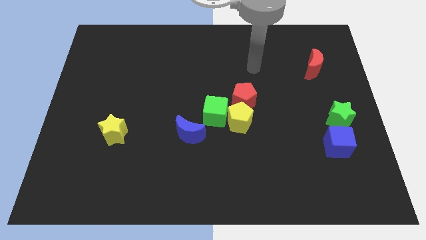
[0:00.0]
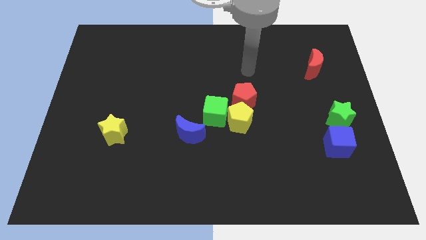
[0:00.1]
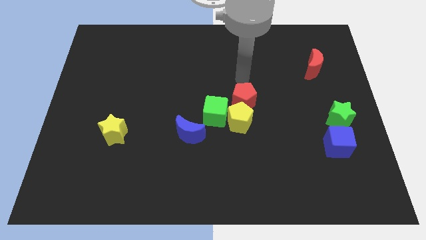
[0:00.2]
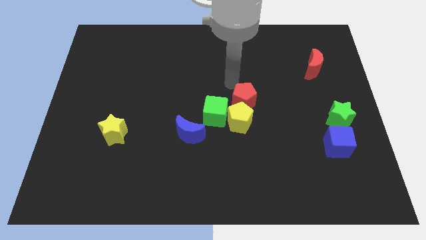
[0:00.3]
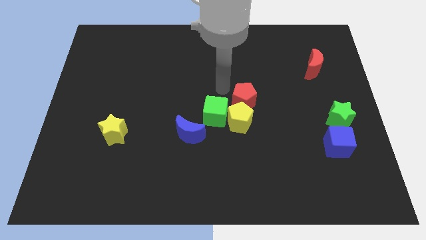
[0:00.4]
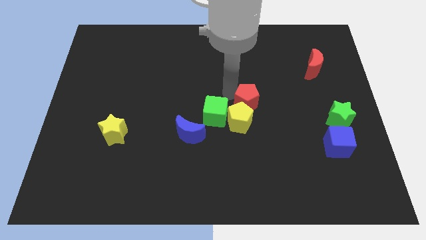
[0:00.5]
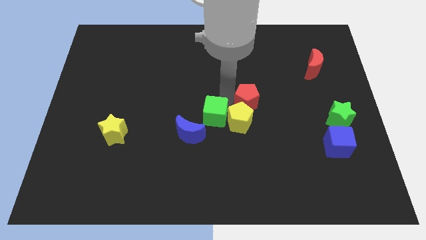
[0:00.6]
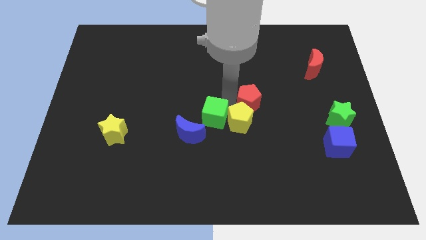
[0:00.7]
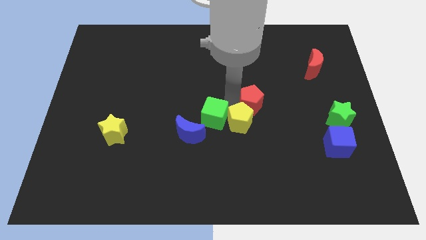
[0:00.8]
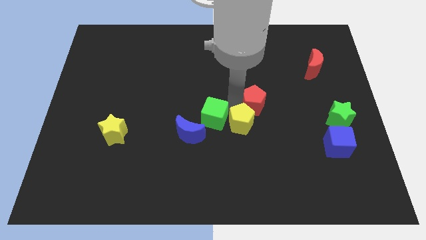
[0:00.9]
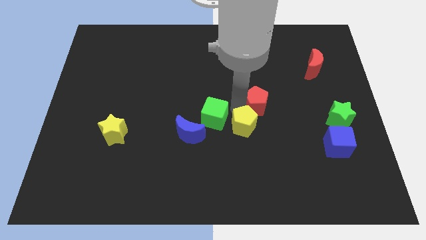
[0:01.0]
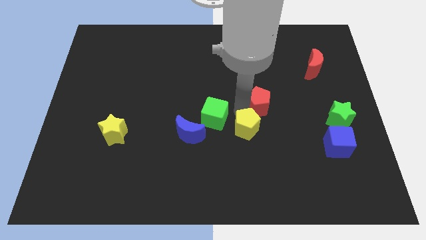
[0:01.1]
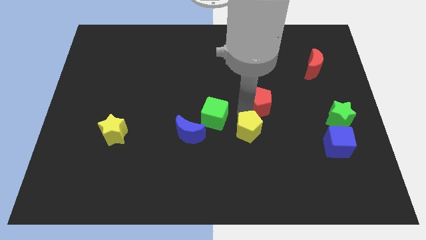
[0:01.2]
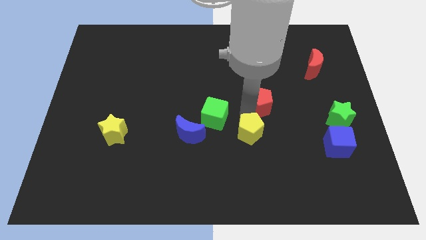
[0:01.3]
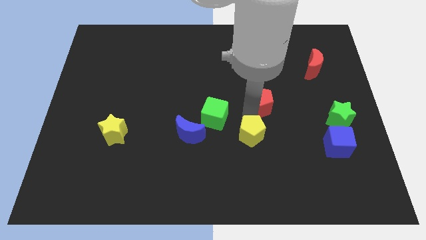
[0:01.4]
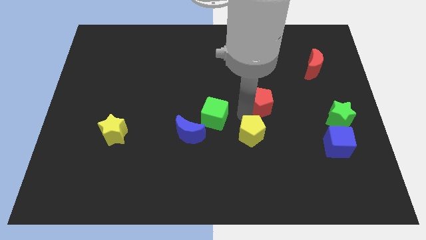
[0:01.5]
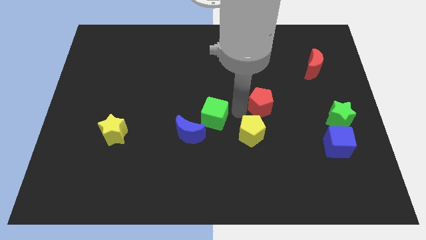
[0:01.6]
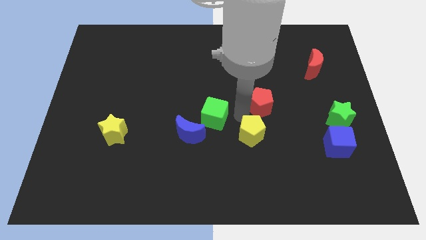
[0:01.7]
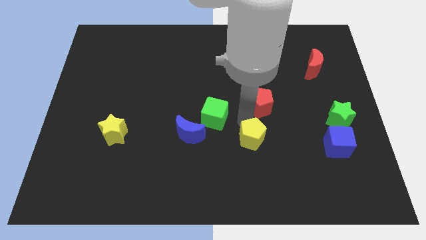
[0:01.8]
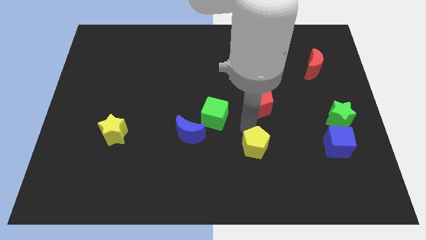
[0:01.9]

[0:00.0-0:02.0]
separate the yellow pentagon from the green cube and red pentagon

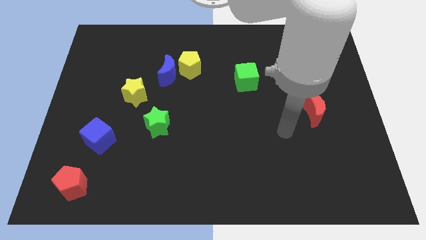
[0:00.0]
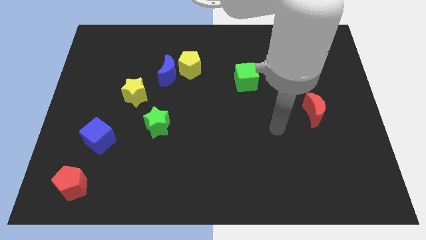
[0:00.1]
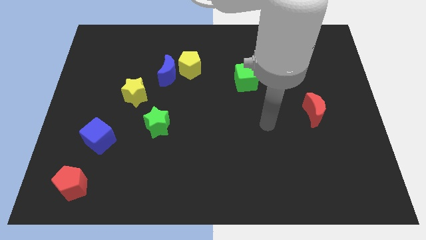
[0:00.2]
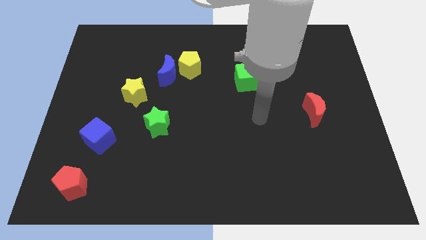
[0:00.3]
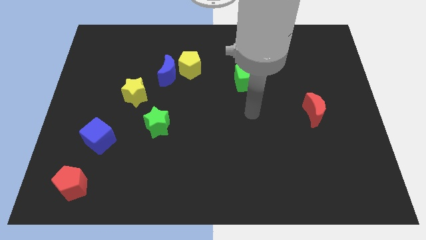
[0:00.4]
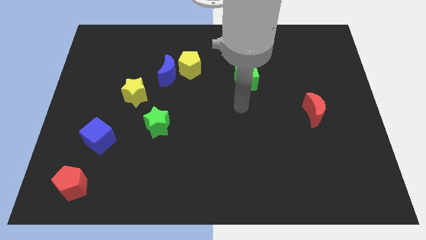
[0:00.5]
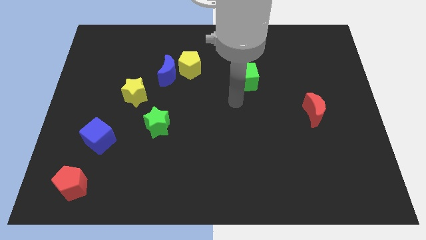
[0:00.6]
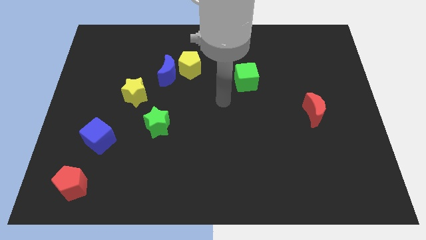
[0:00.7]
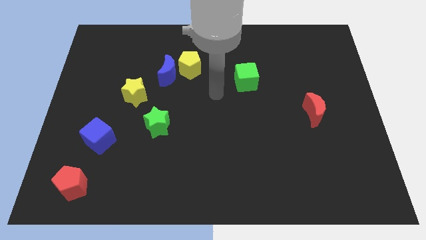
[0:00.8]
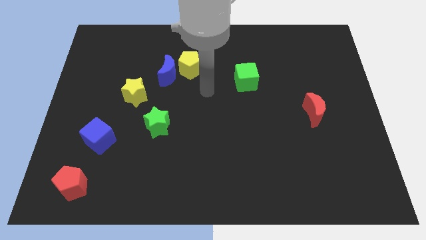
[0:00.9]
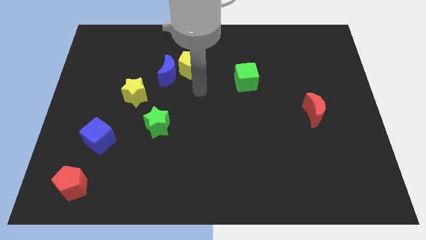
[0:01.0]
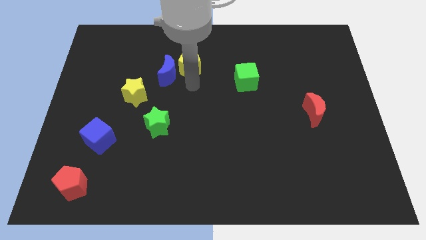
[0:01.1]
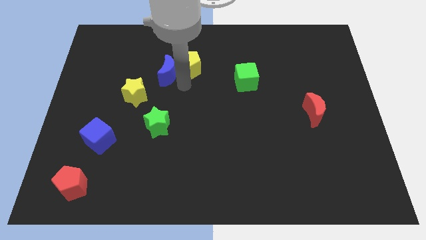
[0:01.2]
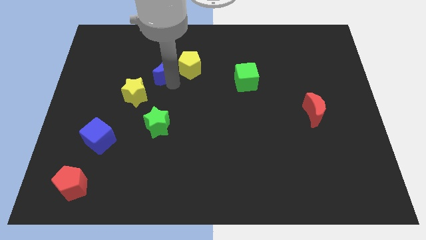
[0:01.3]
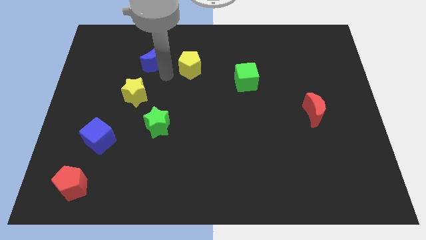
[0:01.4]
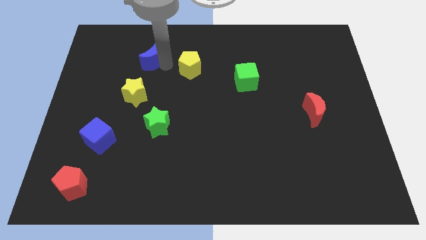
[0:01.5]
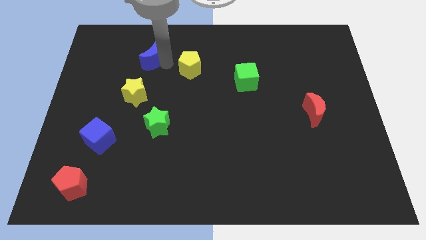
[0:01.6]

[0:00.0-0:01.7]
move the yellow pentagon away from the blue moon

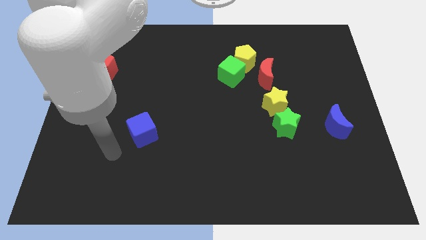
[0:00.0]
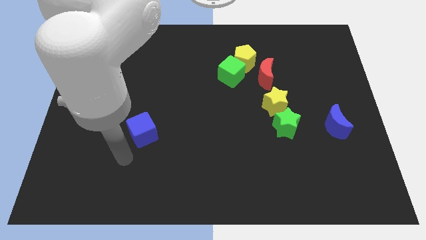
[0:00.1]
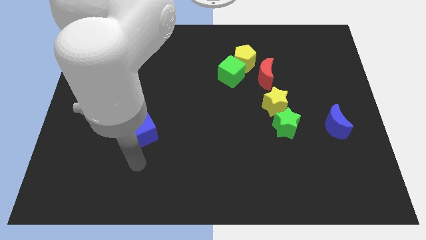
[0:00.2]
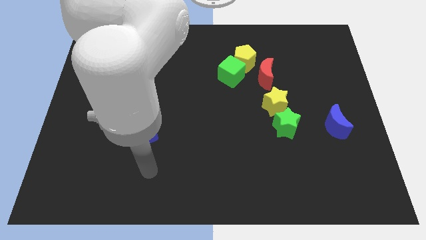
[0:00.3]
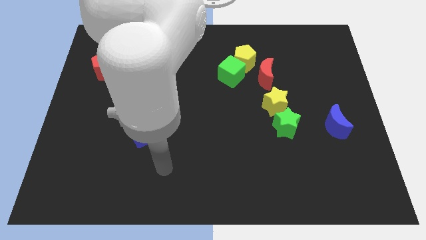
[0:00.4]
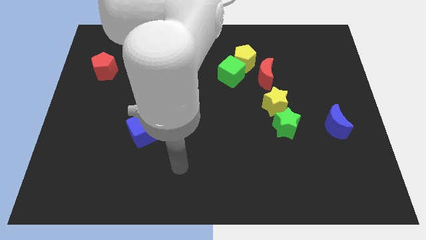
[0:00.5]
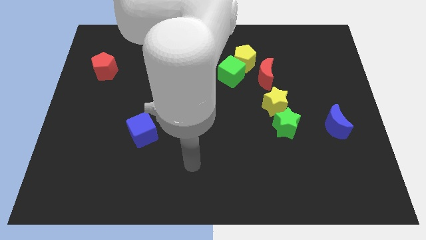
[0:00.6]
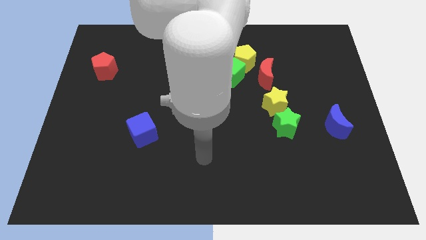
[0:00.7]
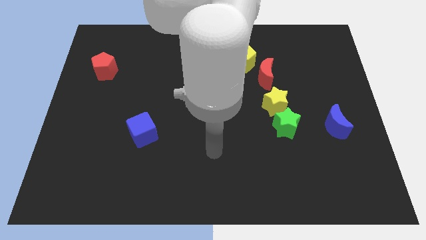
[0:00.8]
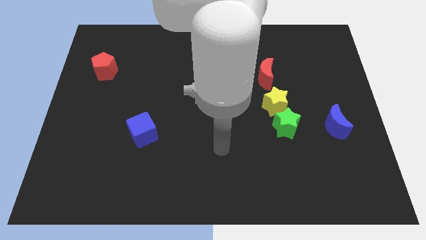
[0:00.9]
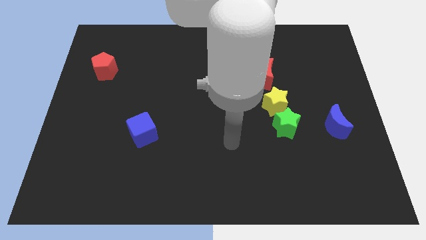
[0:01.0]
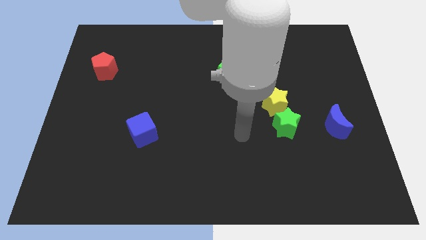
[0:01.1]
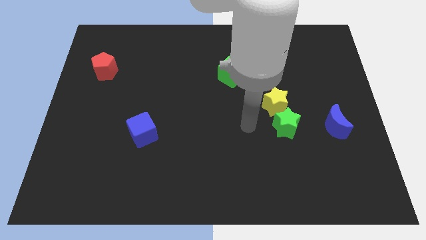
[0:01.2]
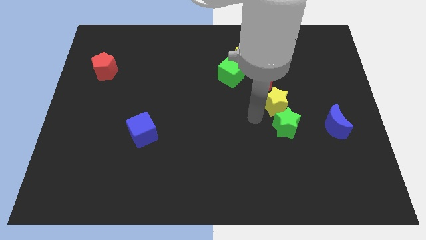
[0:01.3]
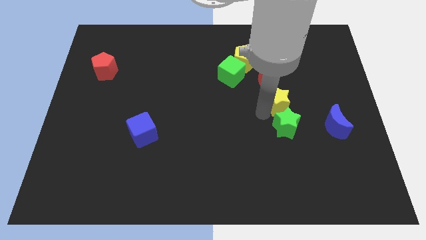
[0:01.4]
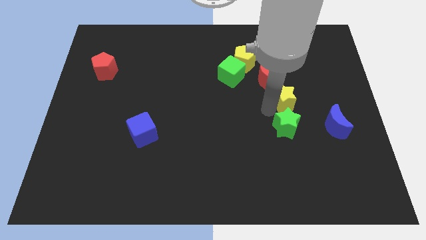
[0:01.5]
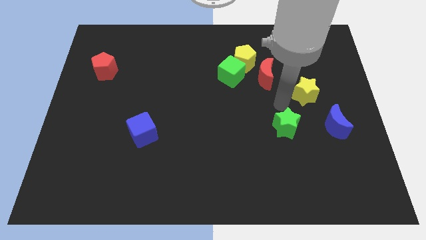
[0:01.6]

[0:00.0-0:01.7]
separate the green star from the yellow star

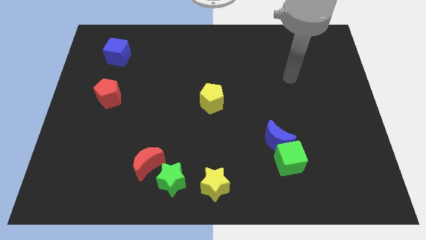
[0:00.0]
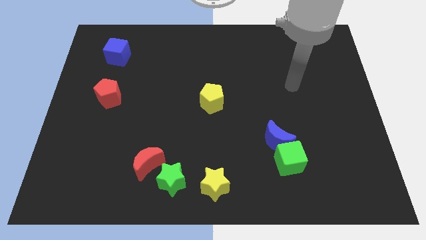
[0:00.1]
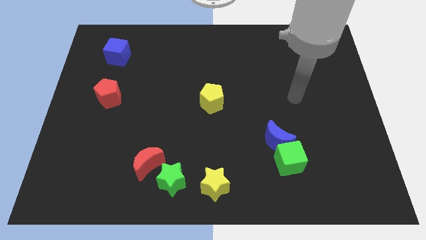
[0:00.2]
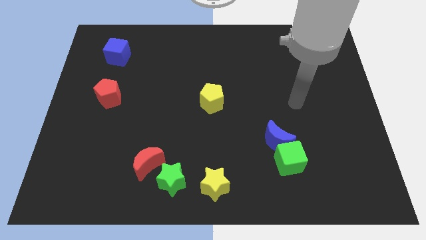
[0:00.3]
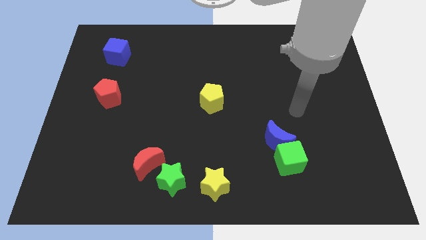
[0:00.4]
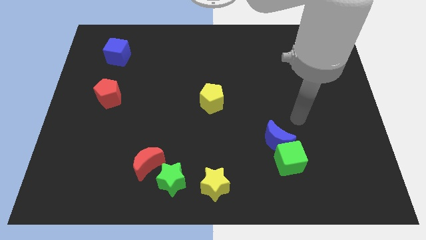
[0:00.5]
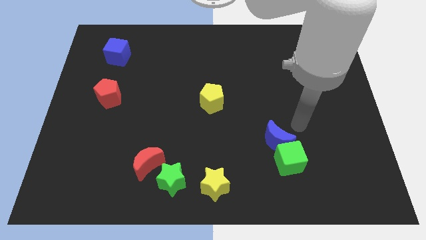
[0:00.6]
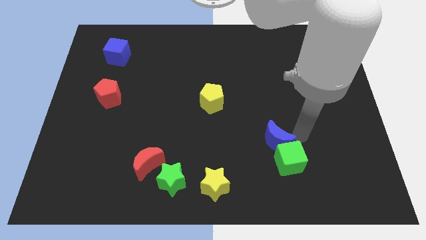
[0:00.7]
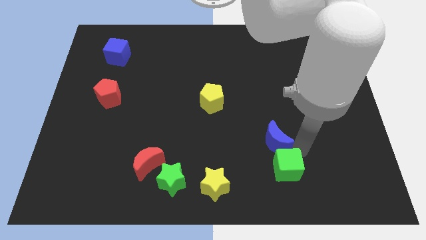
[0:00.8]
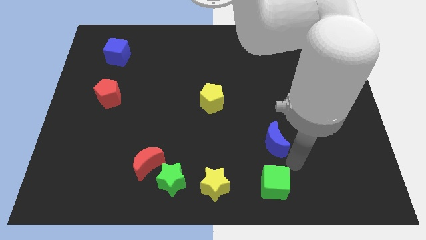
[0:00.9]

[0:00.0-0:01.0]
pull the blue moon apart from the green cube

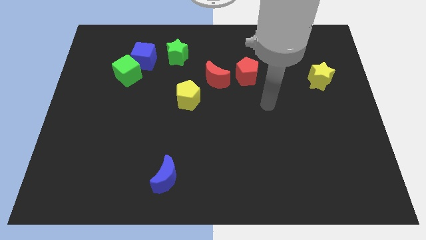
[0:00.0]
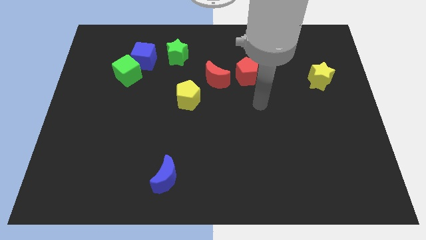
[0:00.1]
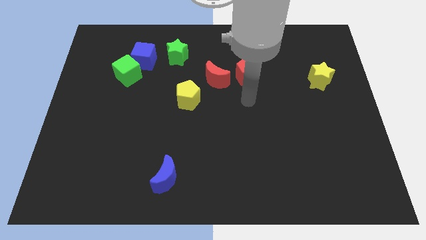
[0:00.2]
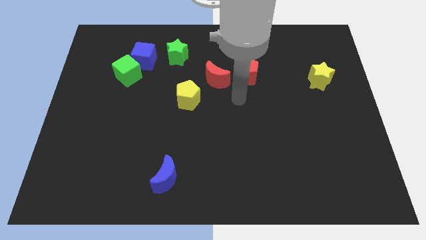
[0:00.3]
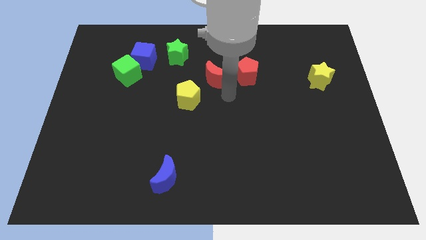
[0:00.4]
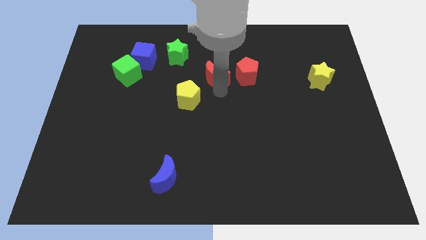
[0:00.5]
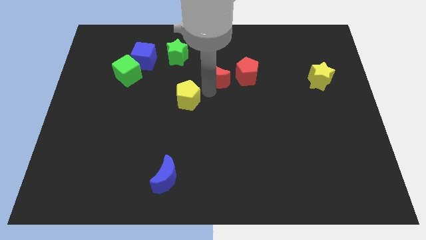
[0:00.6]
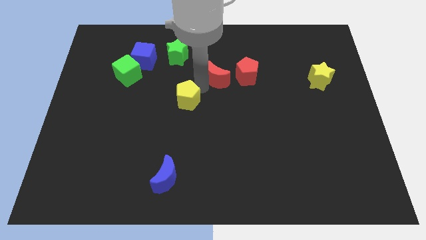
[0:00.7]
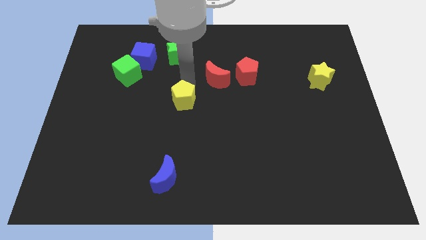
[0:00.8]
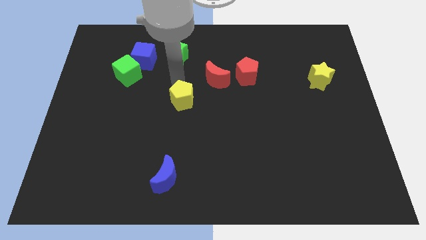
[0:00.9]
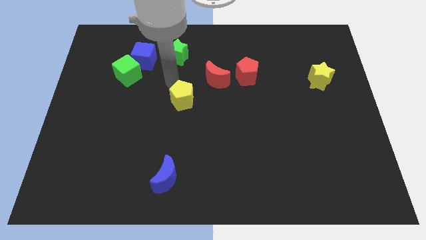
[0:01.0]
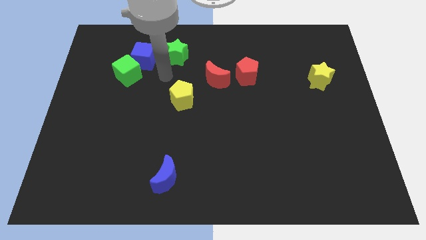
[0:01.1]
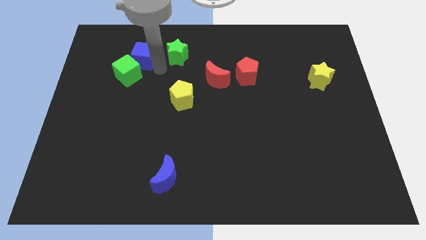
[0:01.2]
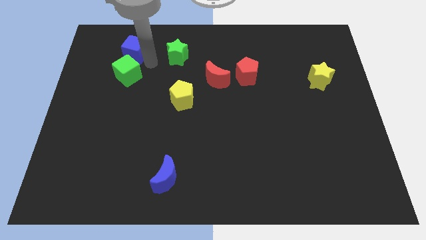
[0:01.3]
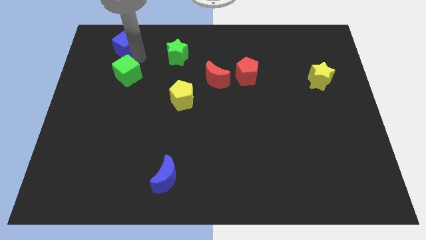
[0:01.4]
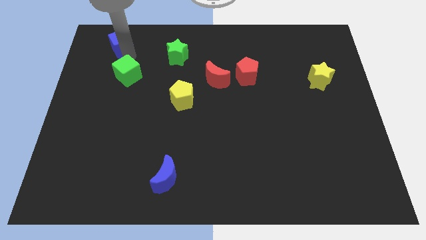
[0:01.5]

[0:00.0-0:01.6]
separate the green cube from the blue cube

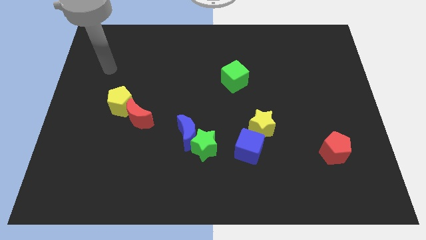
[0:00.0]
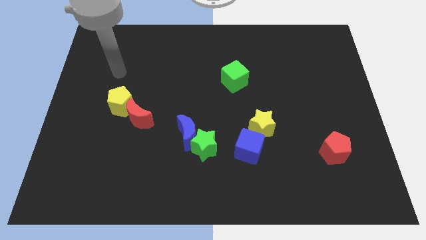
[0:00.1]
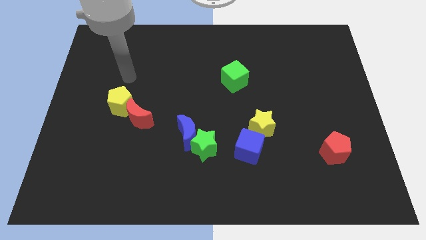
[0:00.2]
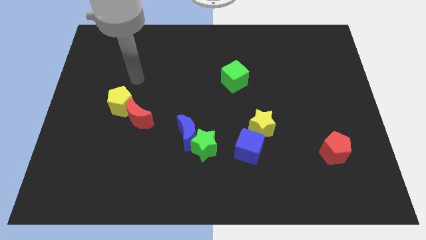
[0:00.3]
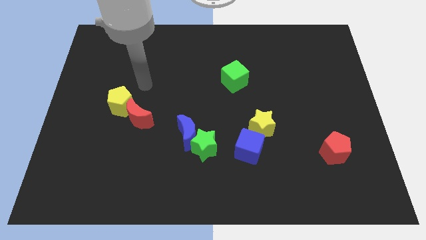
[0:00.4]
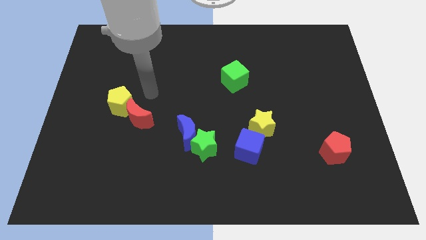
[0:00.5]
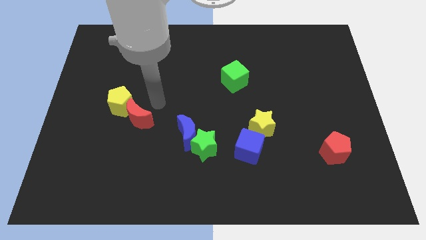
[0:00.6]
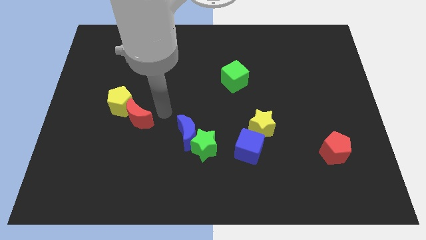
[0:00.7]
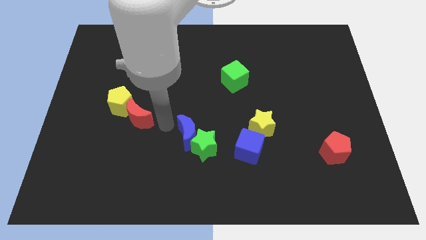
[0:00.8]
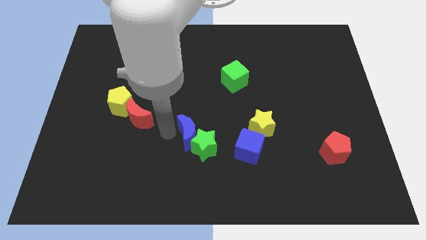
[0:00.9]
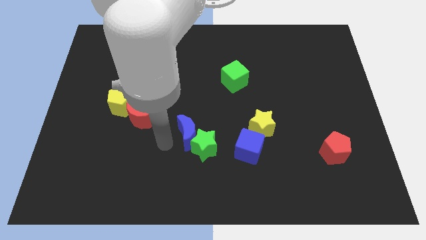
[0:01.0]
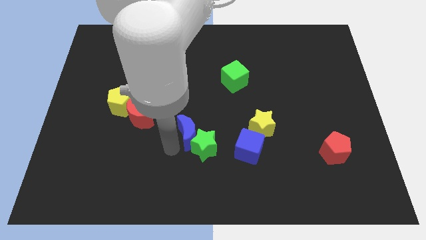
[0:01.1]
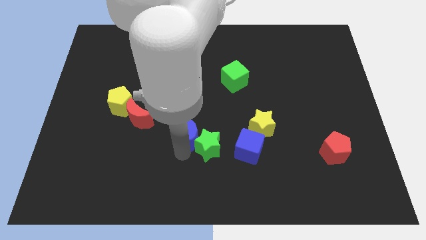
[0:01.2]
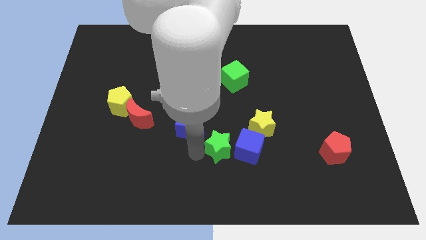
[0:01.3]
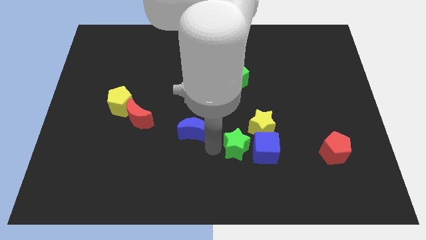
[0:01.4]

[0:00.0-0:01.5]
move the blue moon away from the green star
